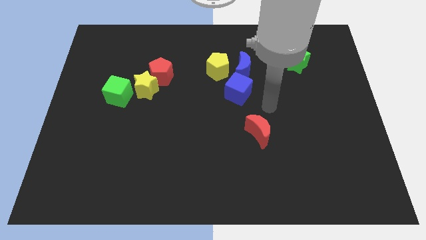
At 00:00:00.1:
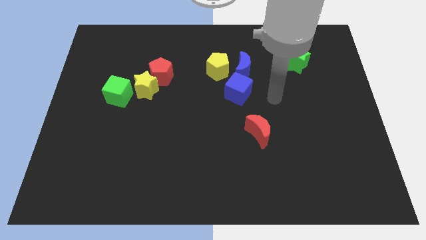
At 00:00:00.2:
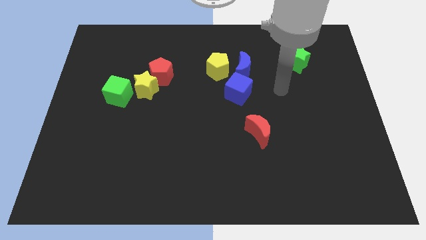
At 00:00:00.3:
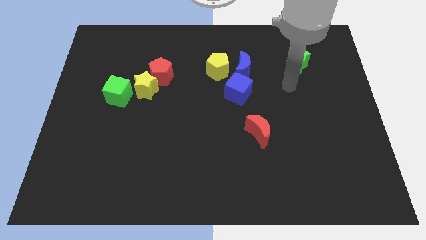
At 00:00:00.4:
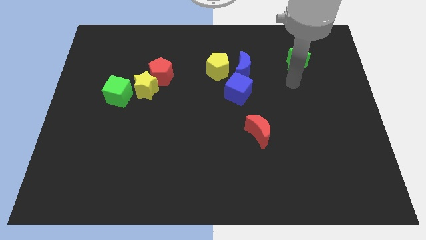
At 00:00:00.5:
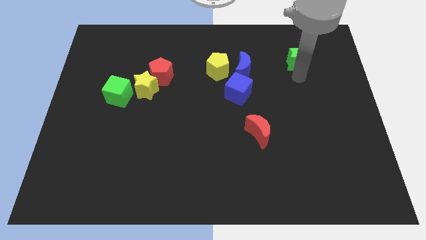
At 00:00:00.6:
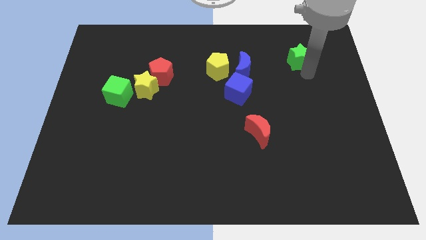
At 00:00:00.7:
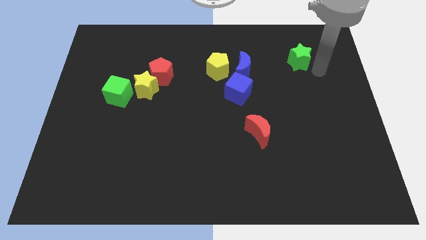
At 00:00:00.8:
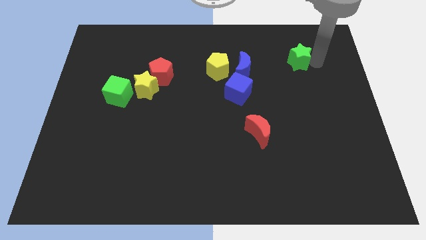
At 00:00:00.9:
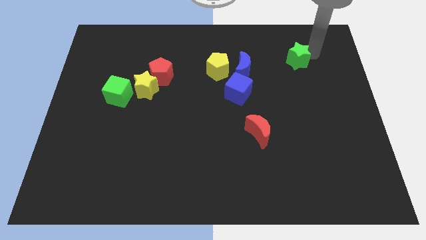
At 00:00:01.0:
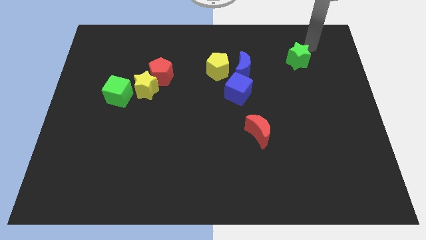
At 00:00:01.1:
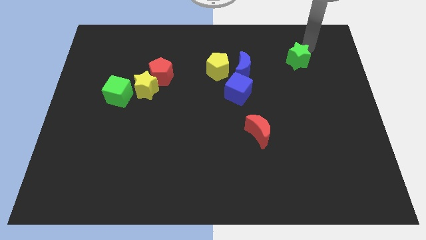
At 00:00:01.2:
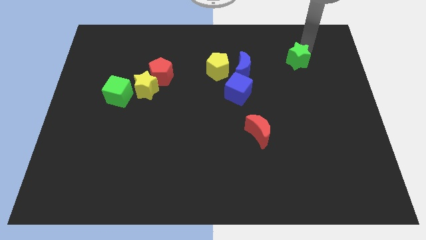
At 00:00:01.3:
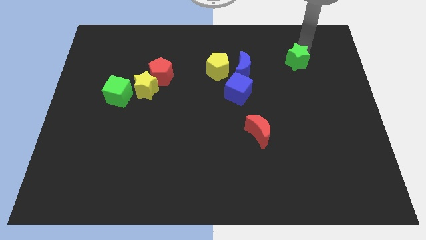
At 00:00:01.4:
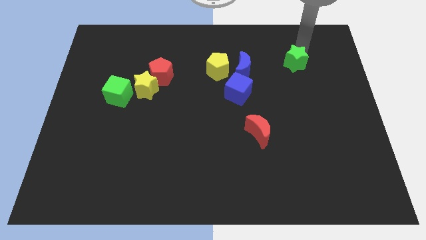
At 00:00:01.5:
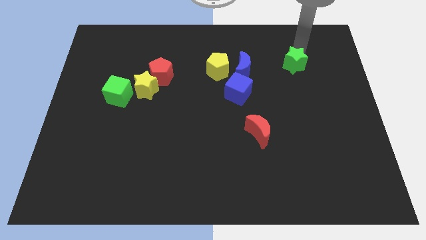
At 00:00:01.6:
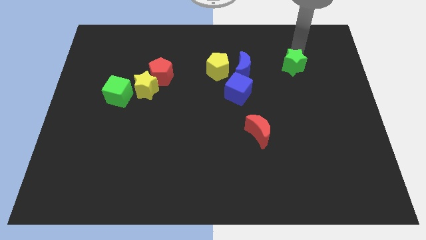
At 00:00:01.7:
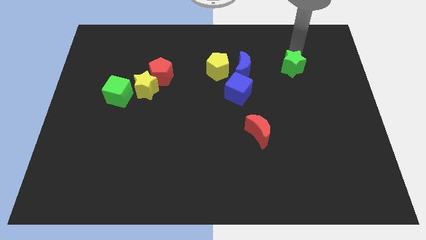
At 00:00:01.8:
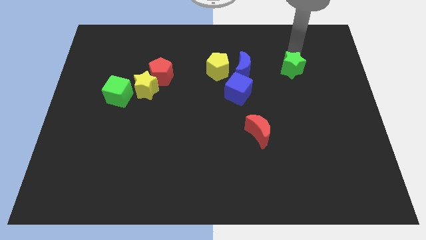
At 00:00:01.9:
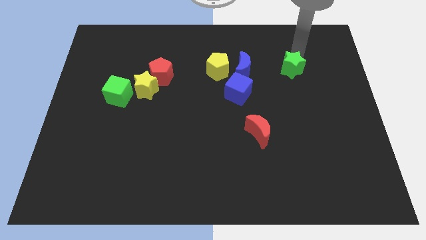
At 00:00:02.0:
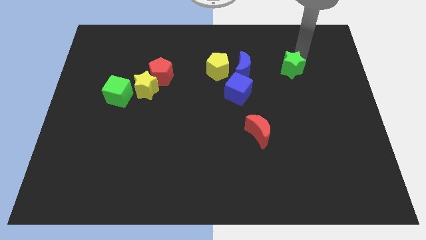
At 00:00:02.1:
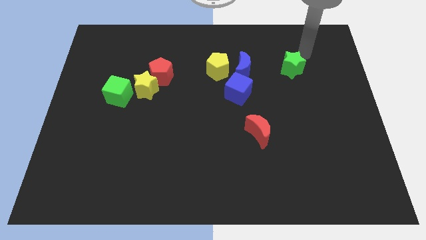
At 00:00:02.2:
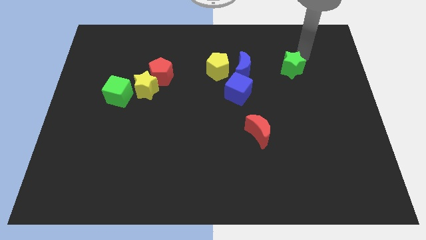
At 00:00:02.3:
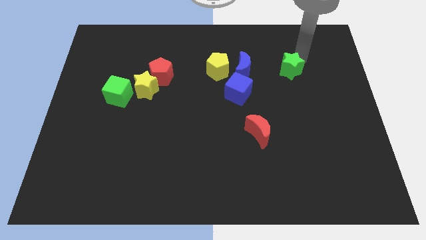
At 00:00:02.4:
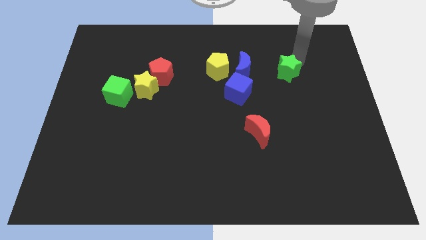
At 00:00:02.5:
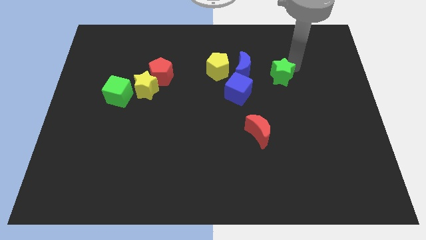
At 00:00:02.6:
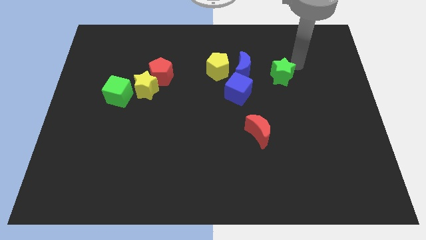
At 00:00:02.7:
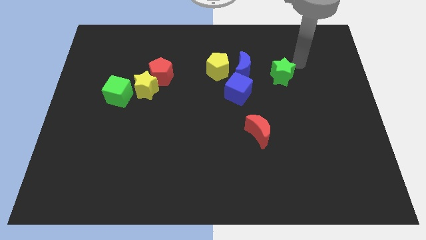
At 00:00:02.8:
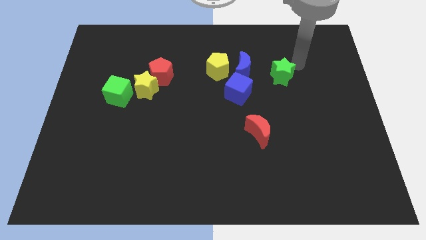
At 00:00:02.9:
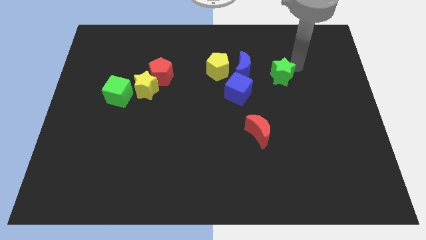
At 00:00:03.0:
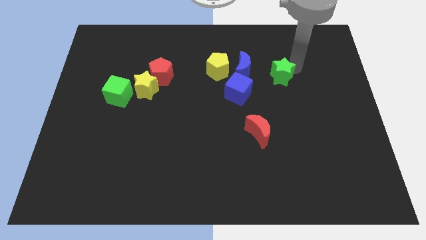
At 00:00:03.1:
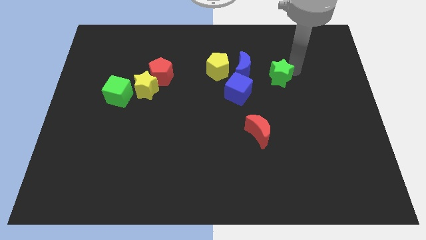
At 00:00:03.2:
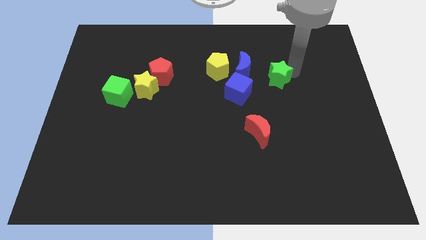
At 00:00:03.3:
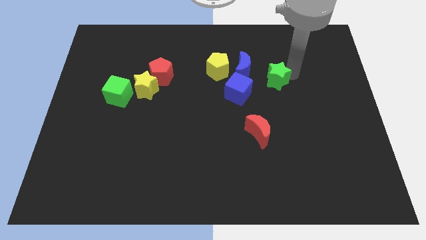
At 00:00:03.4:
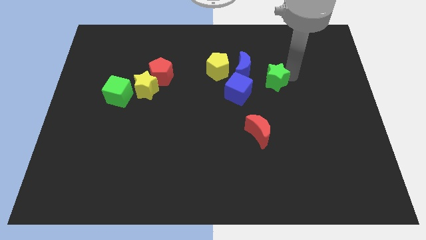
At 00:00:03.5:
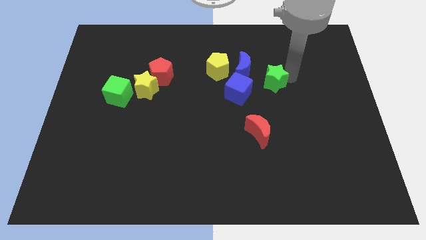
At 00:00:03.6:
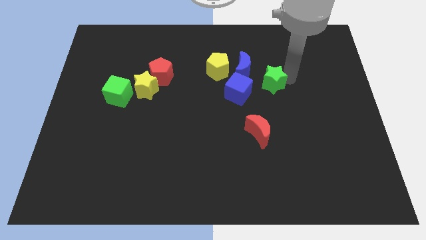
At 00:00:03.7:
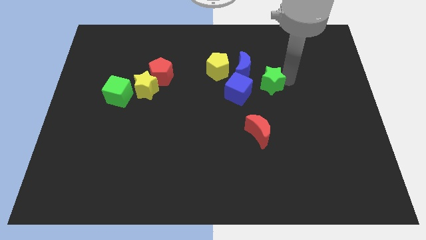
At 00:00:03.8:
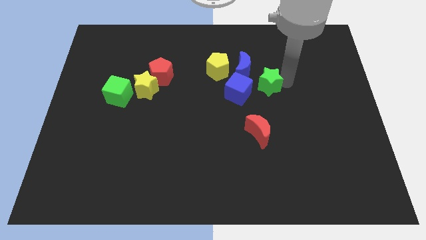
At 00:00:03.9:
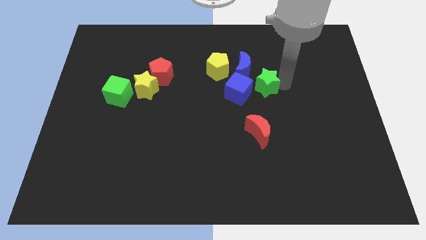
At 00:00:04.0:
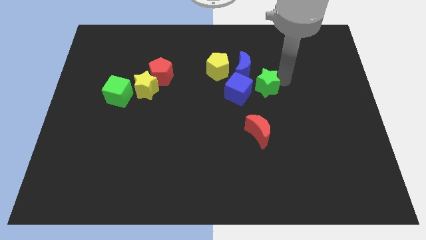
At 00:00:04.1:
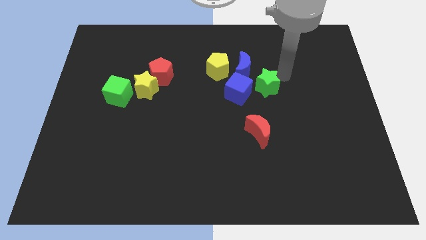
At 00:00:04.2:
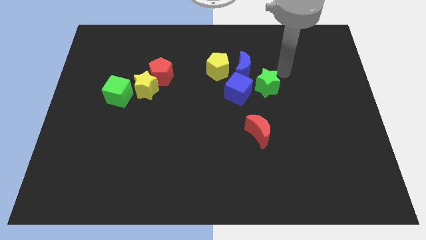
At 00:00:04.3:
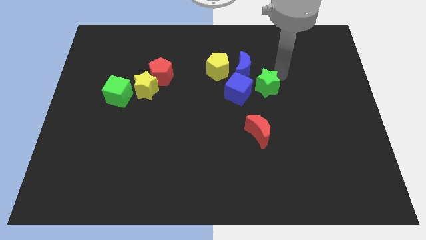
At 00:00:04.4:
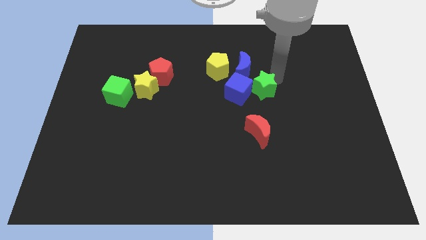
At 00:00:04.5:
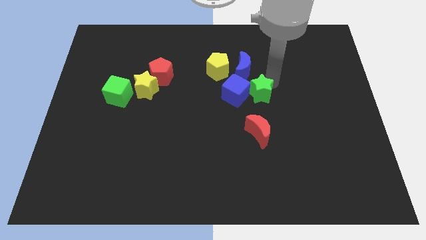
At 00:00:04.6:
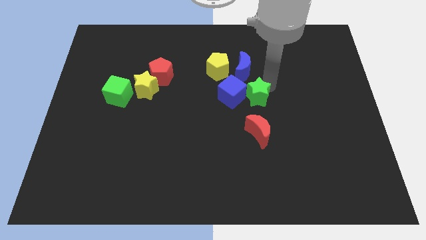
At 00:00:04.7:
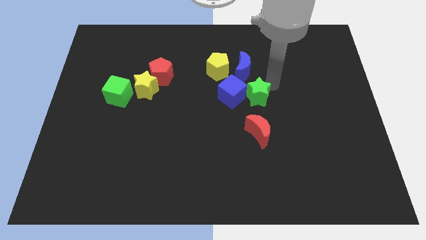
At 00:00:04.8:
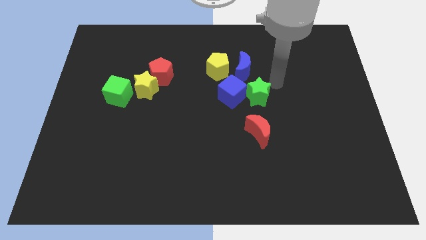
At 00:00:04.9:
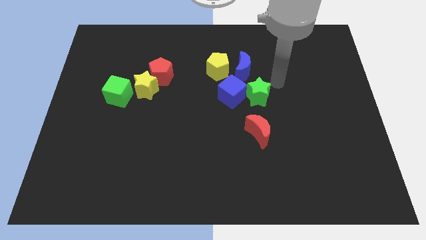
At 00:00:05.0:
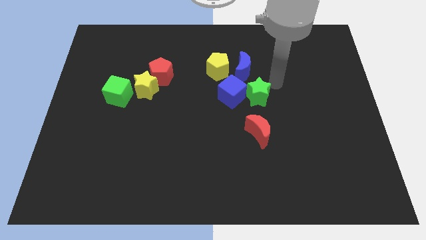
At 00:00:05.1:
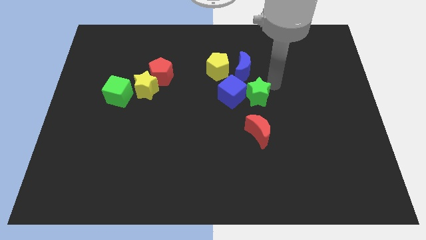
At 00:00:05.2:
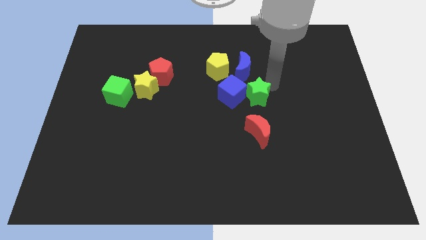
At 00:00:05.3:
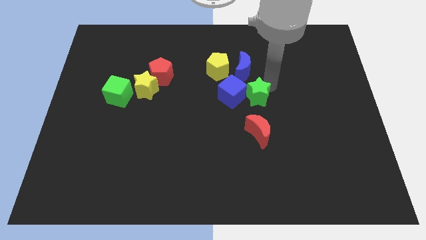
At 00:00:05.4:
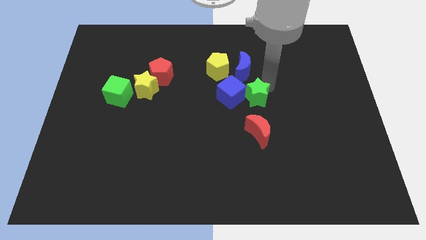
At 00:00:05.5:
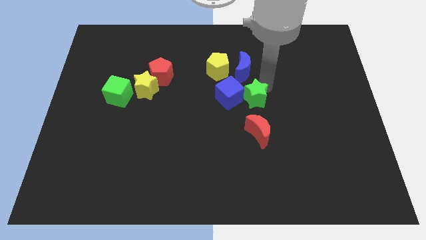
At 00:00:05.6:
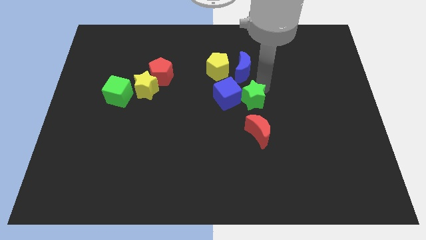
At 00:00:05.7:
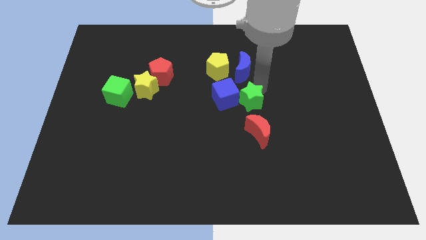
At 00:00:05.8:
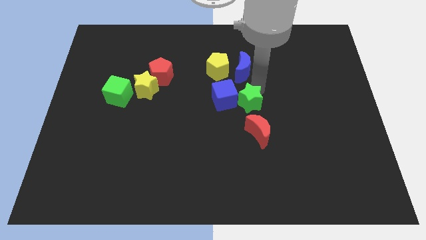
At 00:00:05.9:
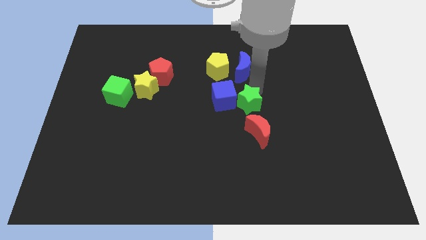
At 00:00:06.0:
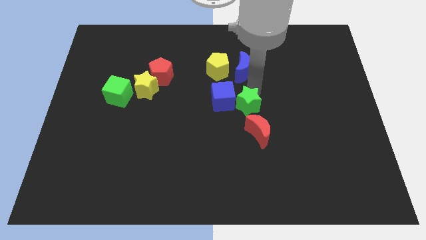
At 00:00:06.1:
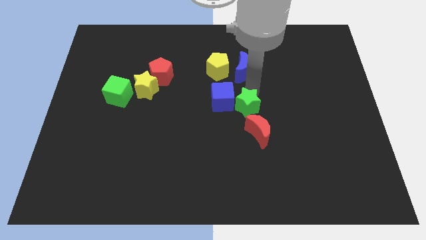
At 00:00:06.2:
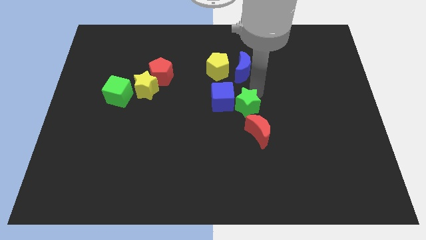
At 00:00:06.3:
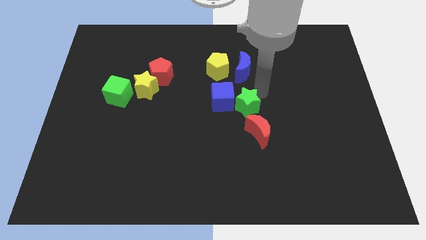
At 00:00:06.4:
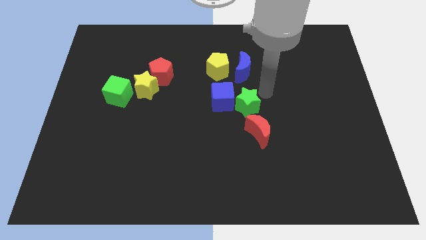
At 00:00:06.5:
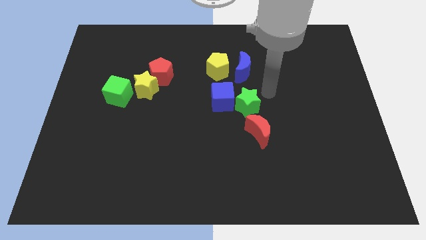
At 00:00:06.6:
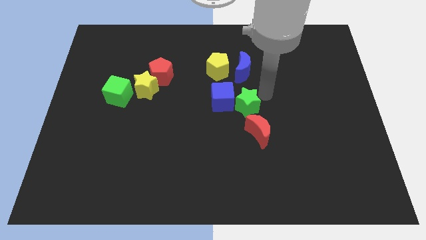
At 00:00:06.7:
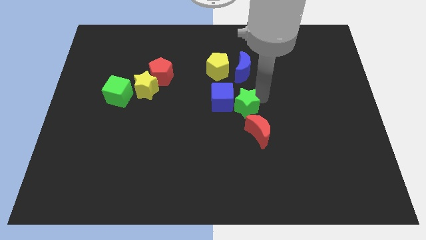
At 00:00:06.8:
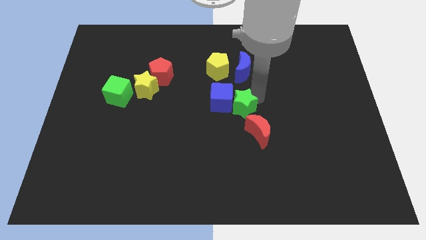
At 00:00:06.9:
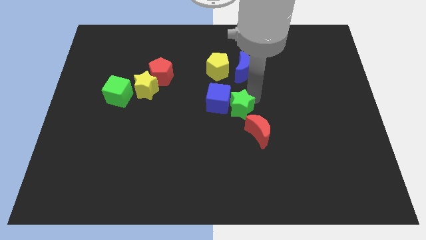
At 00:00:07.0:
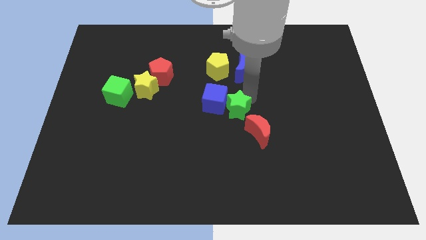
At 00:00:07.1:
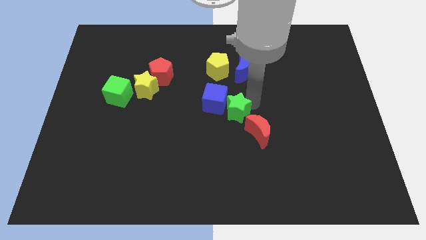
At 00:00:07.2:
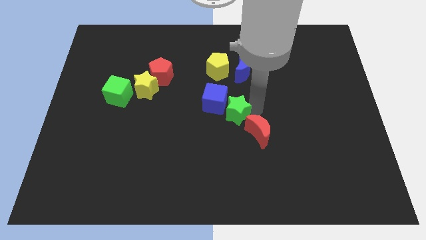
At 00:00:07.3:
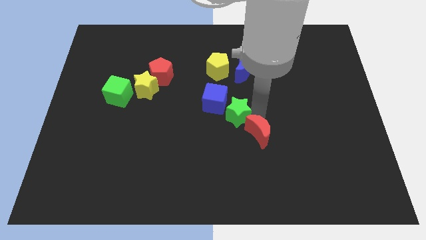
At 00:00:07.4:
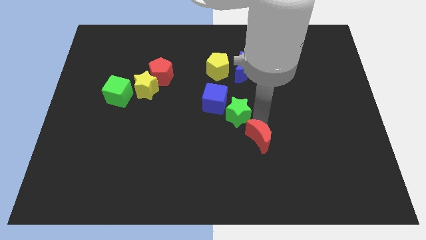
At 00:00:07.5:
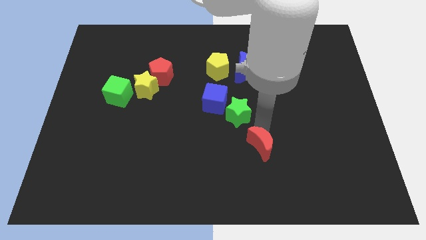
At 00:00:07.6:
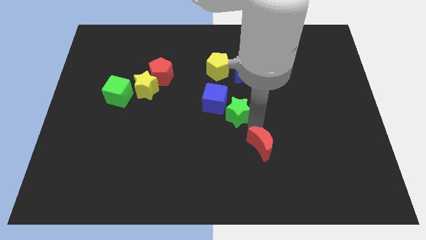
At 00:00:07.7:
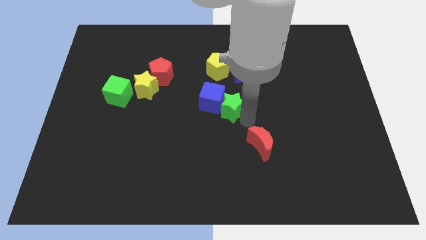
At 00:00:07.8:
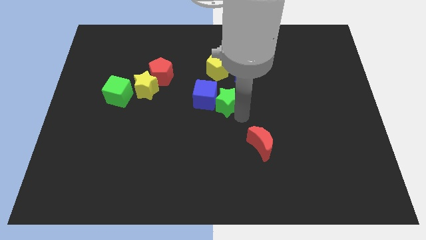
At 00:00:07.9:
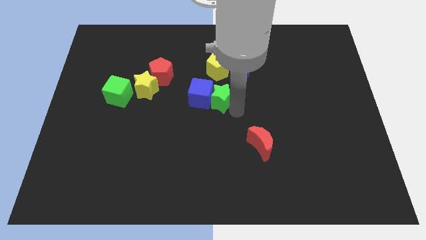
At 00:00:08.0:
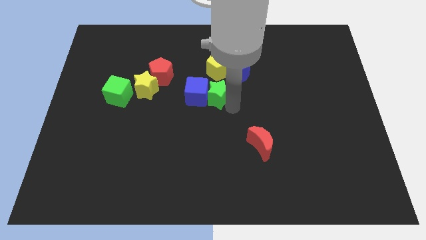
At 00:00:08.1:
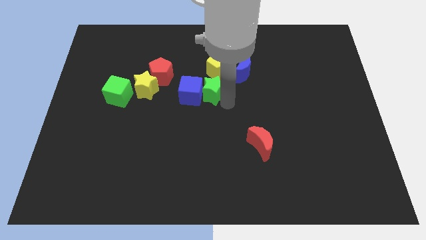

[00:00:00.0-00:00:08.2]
slide the green star to the bottom left side of the yellow pentagon
